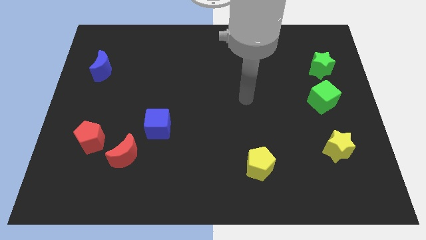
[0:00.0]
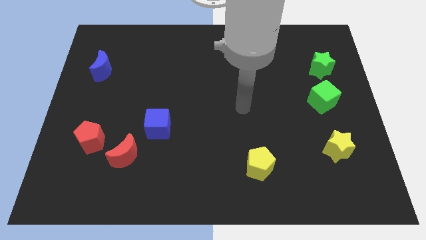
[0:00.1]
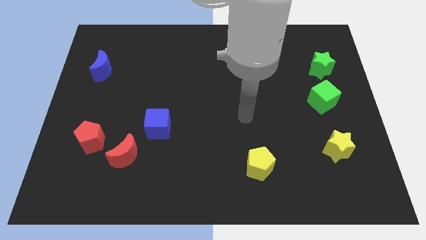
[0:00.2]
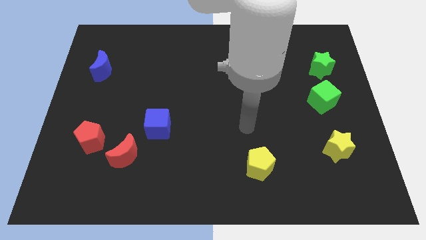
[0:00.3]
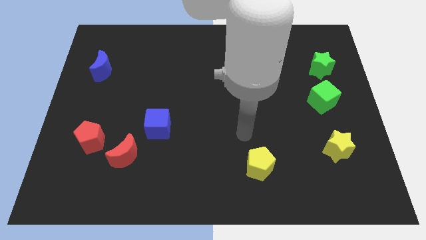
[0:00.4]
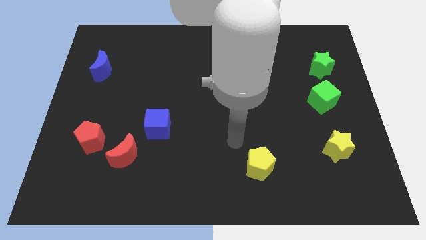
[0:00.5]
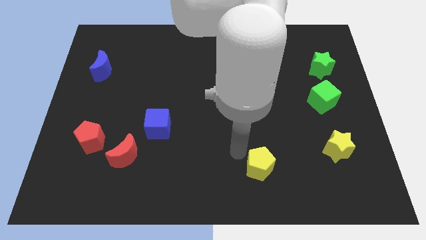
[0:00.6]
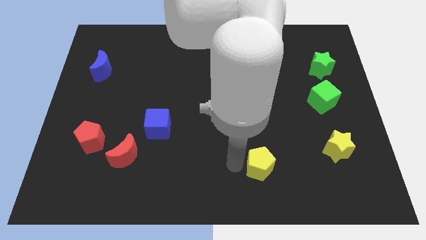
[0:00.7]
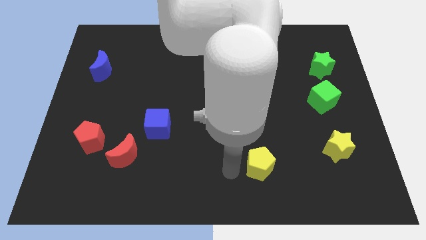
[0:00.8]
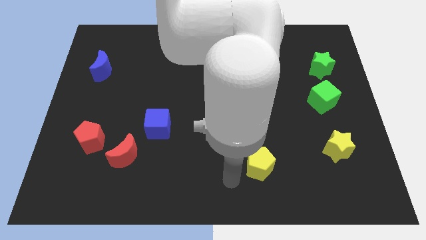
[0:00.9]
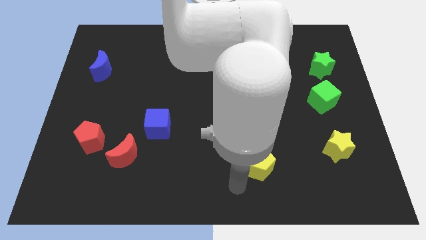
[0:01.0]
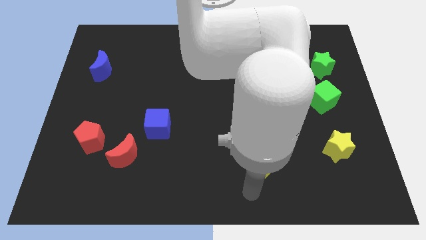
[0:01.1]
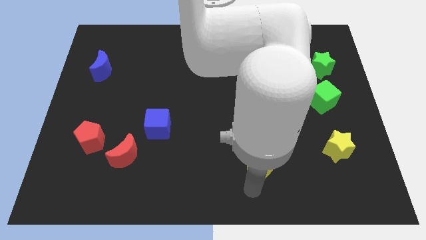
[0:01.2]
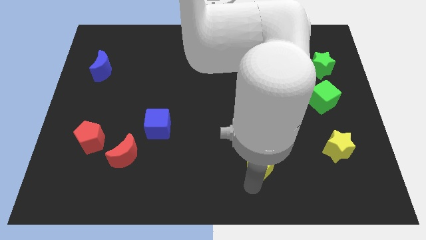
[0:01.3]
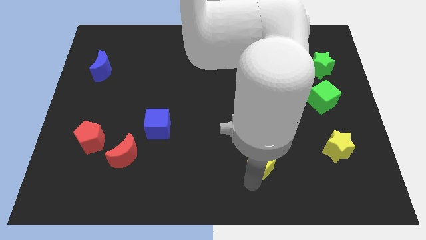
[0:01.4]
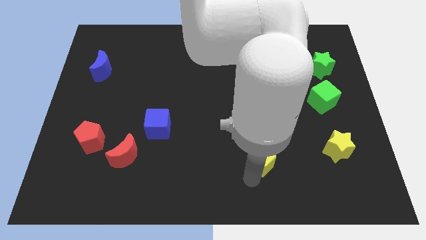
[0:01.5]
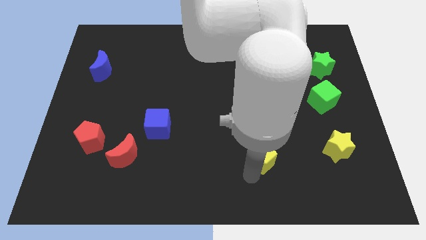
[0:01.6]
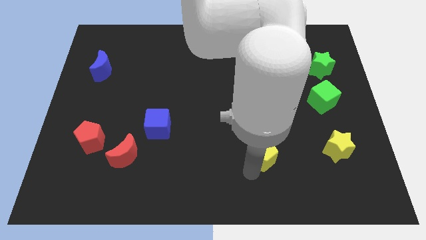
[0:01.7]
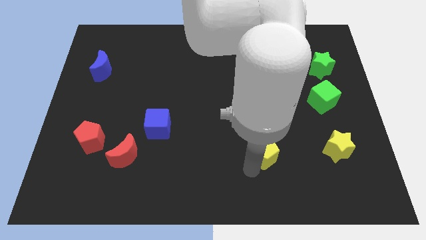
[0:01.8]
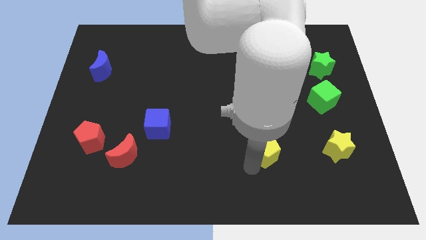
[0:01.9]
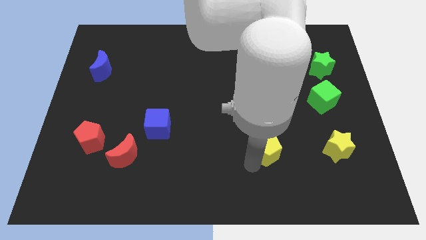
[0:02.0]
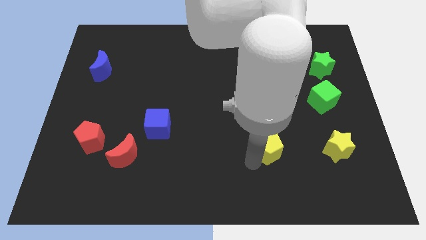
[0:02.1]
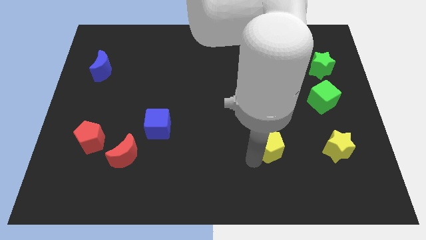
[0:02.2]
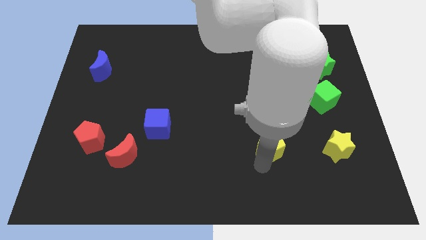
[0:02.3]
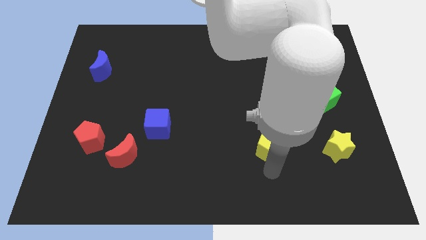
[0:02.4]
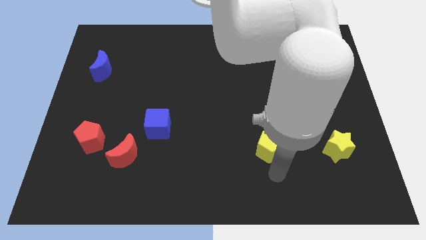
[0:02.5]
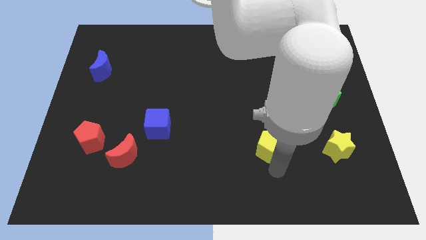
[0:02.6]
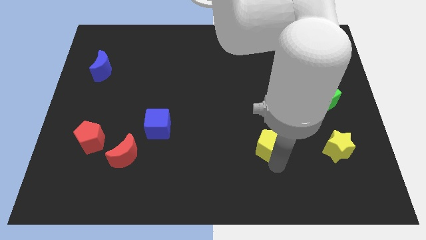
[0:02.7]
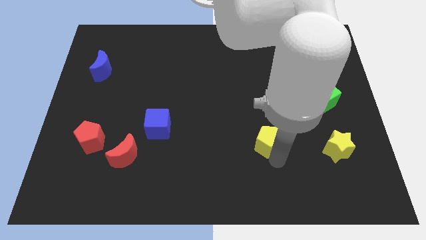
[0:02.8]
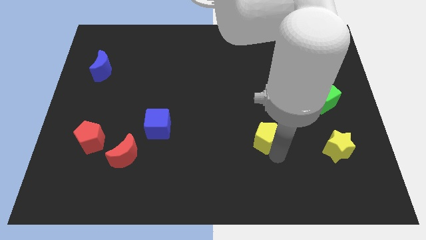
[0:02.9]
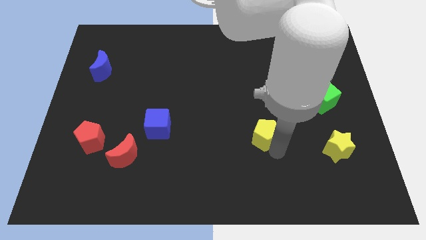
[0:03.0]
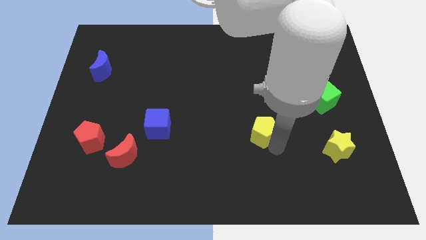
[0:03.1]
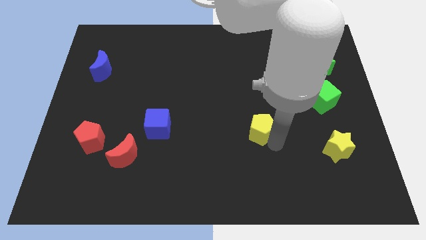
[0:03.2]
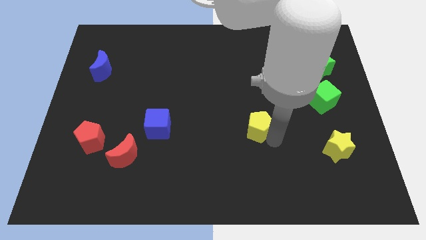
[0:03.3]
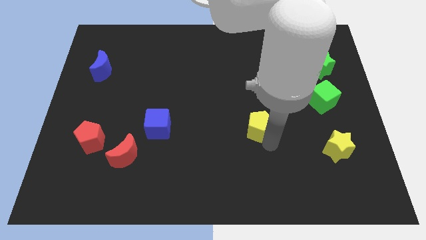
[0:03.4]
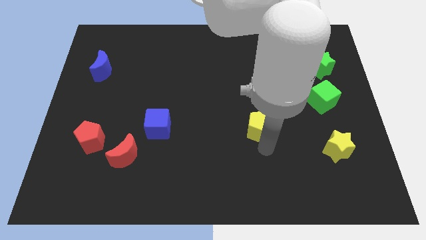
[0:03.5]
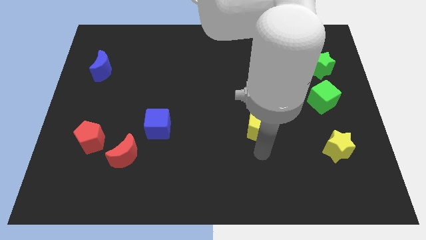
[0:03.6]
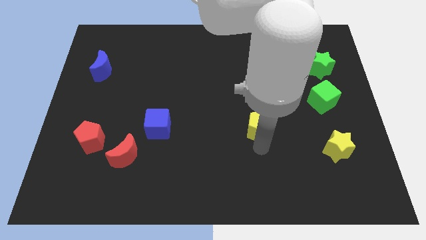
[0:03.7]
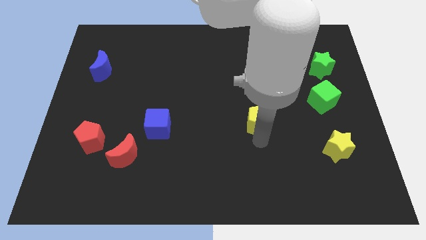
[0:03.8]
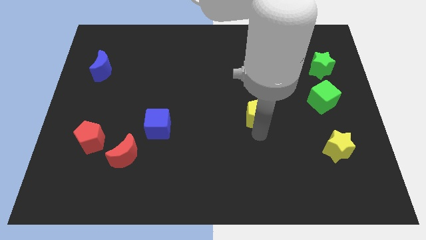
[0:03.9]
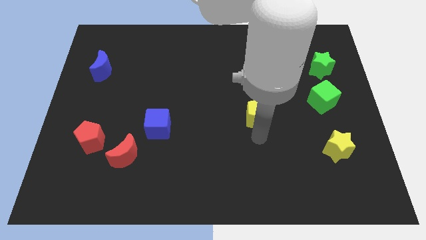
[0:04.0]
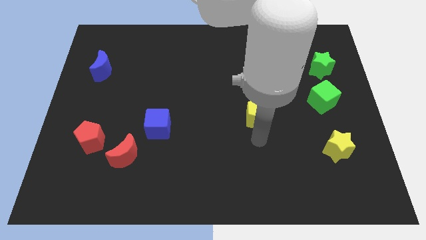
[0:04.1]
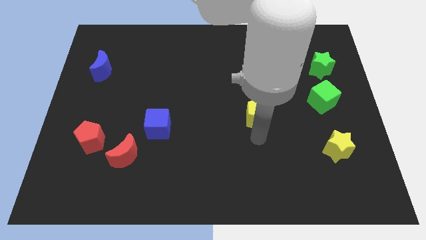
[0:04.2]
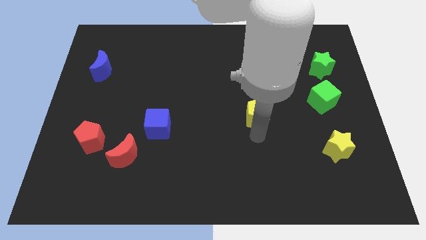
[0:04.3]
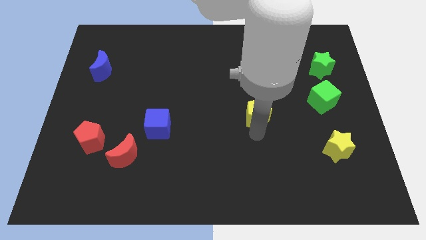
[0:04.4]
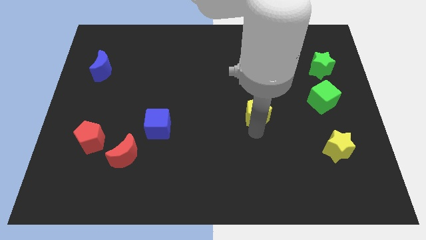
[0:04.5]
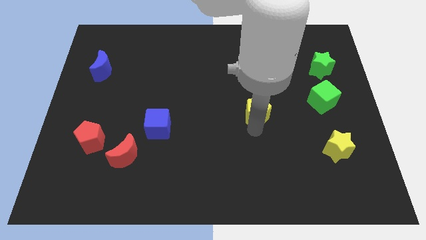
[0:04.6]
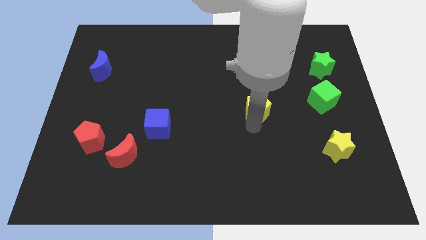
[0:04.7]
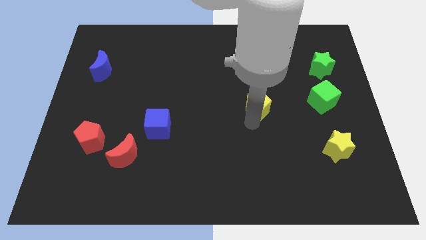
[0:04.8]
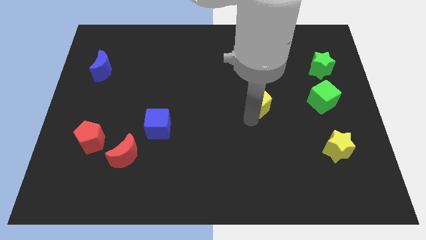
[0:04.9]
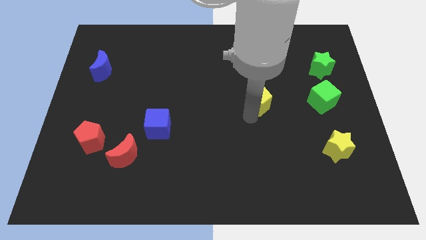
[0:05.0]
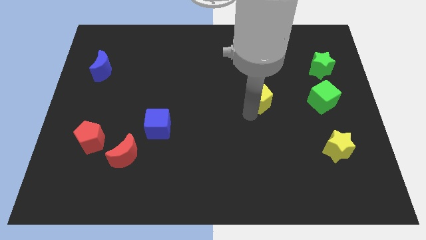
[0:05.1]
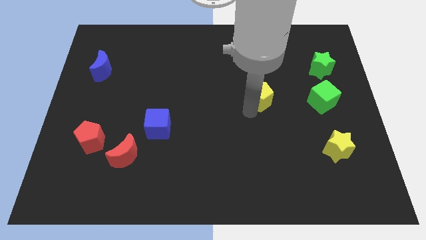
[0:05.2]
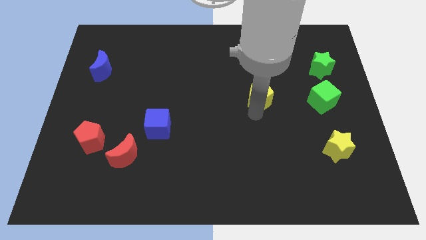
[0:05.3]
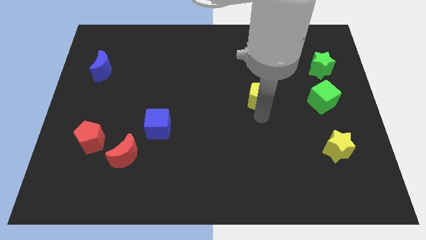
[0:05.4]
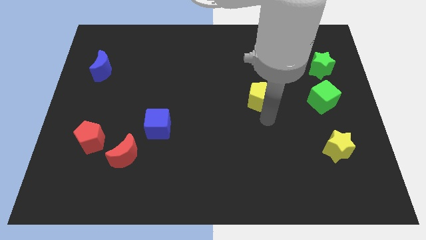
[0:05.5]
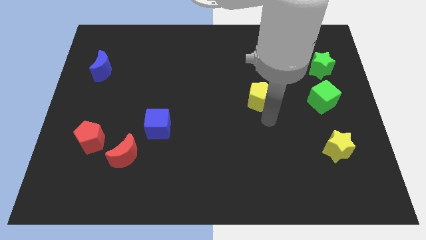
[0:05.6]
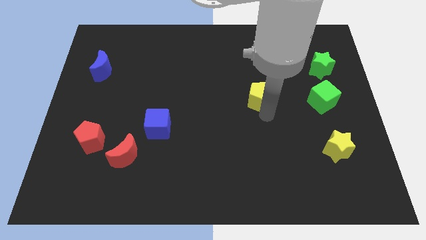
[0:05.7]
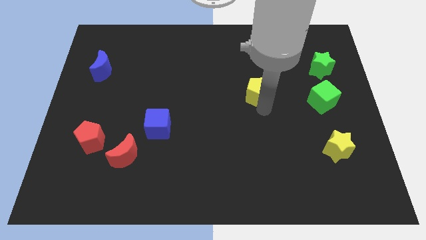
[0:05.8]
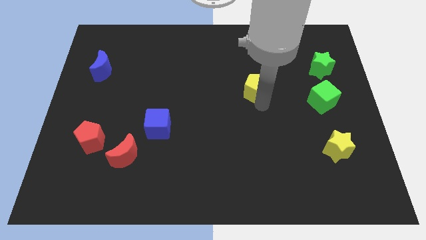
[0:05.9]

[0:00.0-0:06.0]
push the yellow pentagon upwards

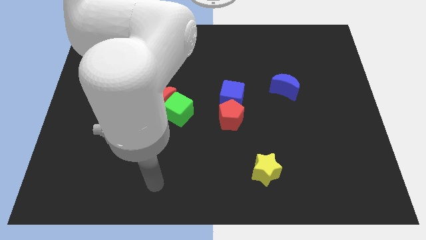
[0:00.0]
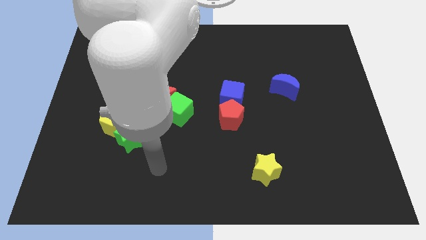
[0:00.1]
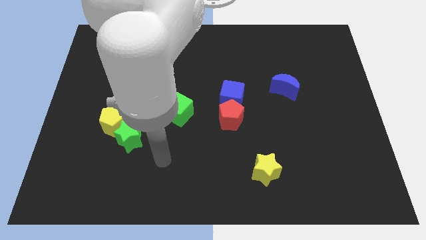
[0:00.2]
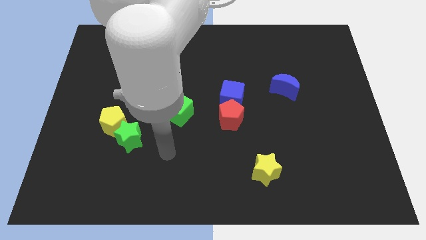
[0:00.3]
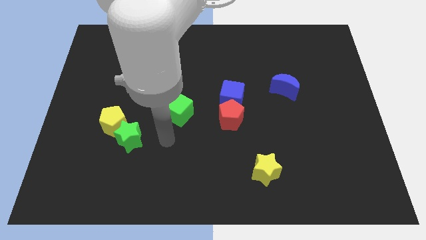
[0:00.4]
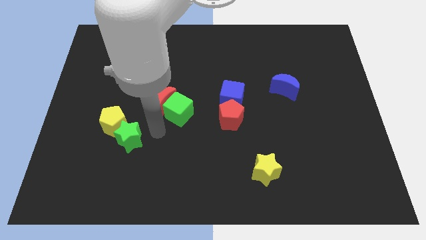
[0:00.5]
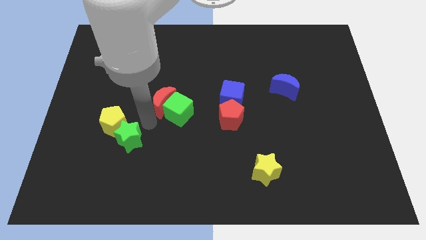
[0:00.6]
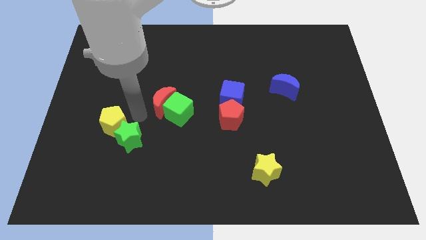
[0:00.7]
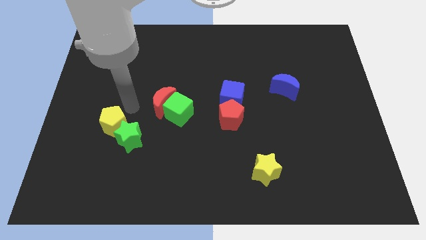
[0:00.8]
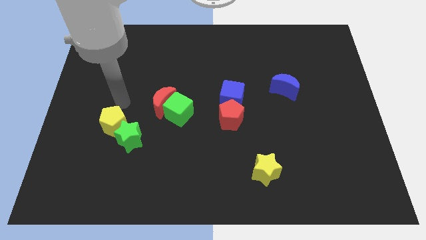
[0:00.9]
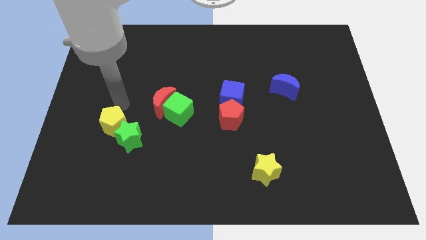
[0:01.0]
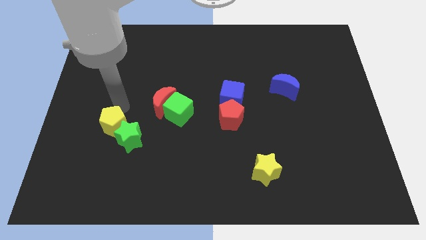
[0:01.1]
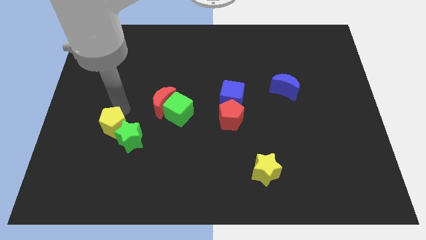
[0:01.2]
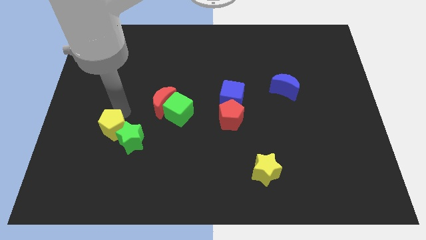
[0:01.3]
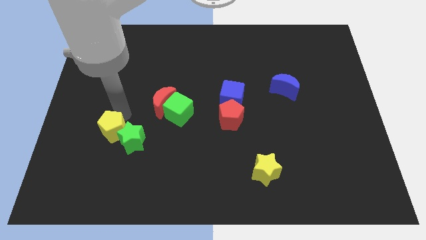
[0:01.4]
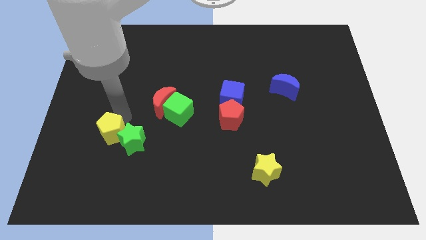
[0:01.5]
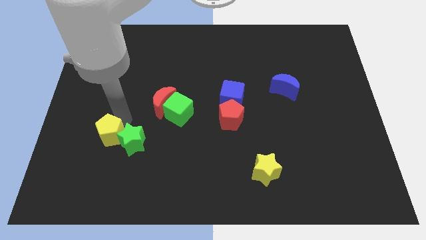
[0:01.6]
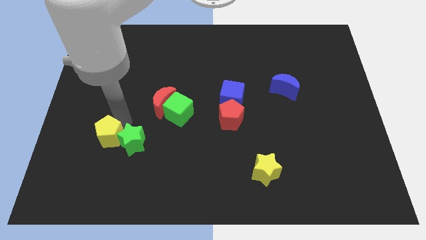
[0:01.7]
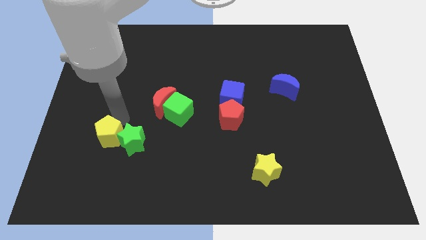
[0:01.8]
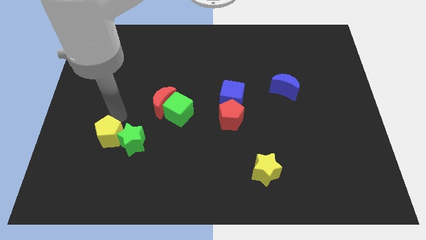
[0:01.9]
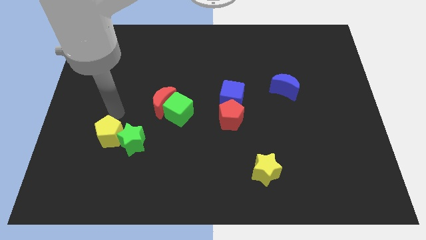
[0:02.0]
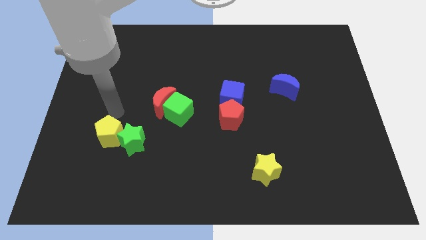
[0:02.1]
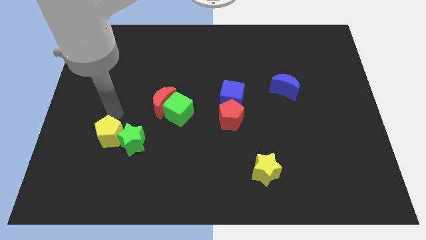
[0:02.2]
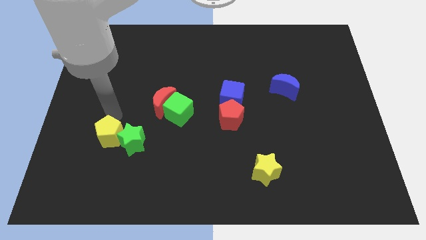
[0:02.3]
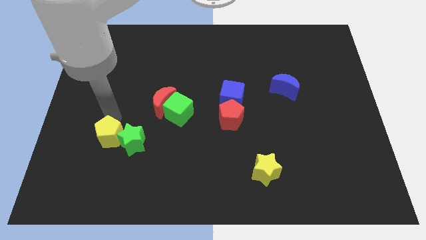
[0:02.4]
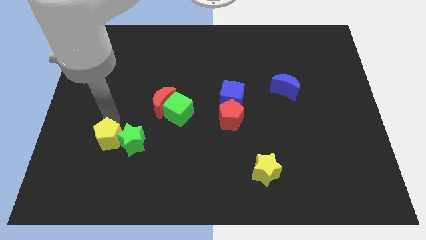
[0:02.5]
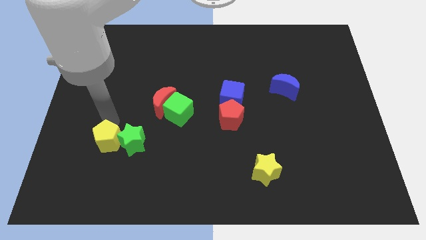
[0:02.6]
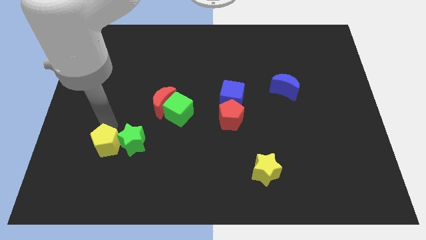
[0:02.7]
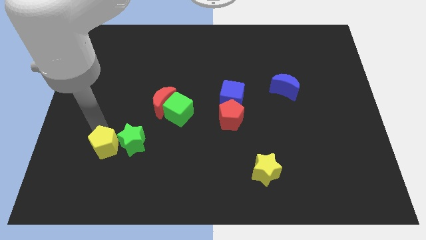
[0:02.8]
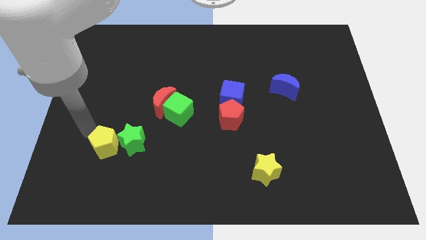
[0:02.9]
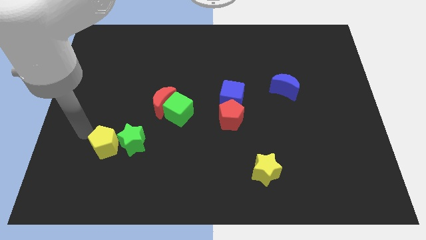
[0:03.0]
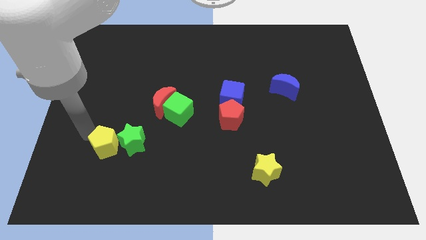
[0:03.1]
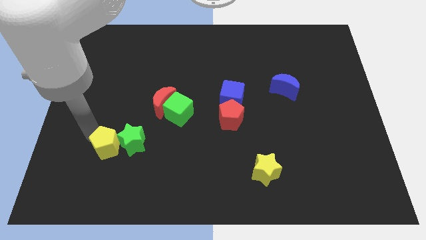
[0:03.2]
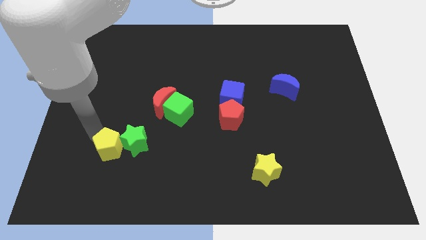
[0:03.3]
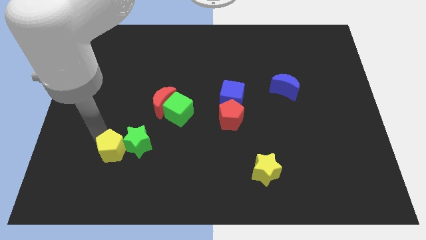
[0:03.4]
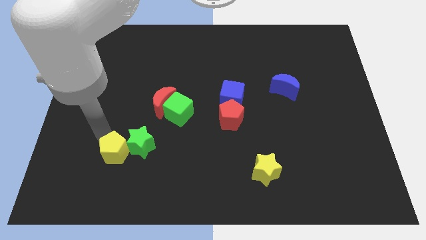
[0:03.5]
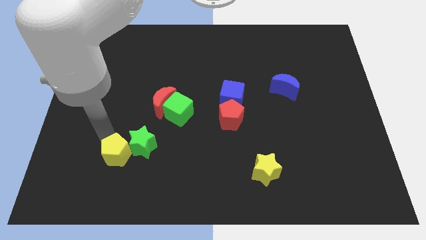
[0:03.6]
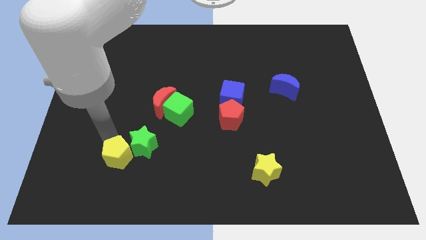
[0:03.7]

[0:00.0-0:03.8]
slide the yellow pentagon diagonally down and to the right slightly
